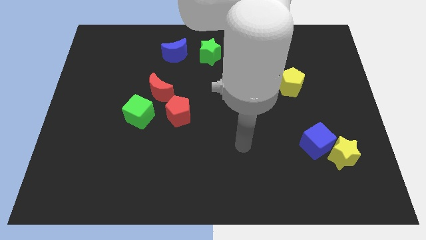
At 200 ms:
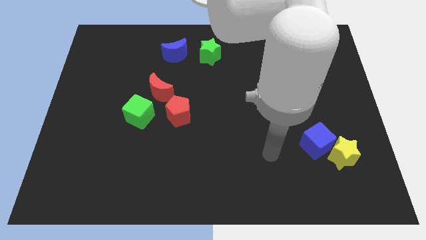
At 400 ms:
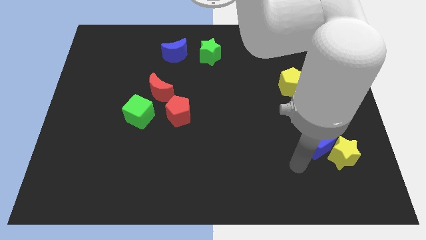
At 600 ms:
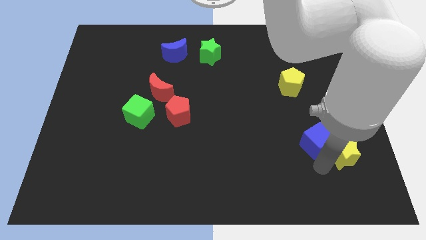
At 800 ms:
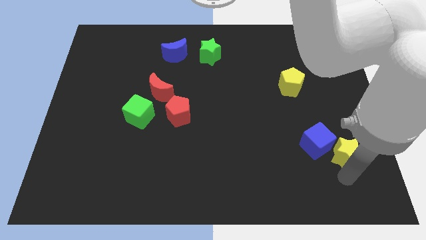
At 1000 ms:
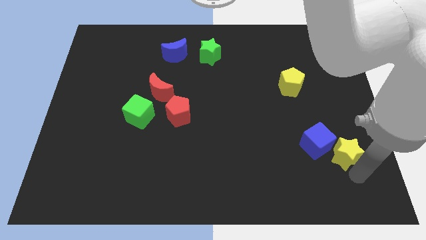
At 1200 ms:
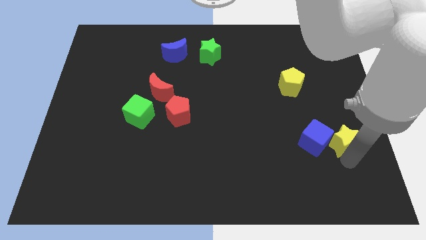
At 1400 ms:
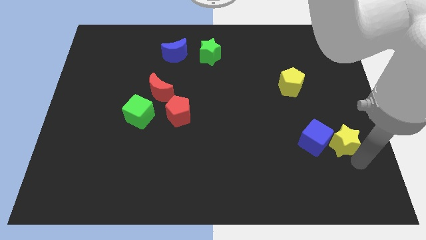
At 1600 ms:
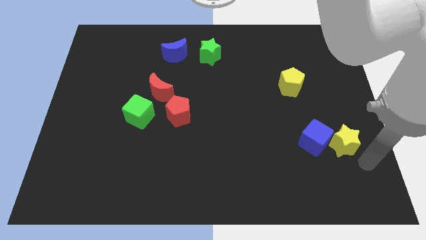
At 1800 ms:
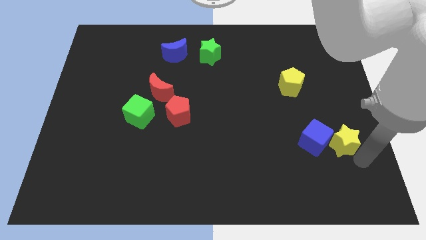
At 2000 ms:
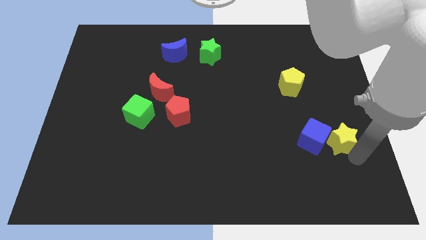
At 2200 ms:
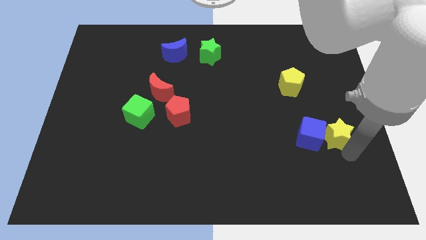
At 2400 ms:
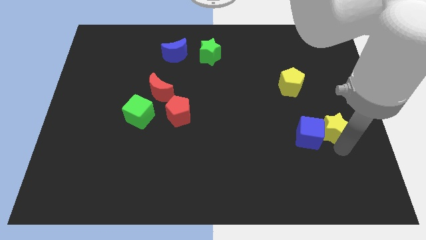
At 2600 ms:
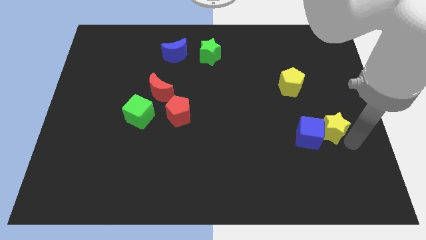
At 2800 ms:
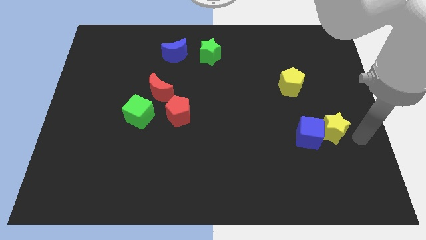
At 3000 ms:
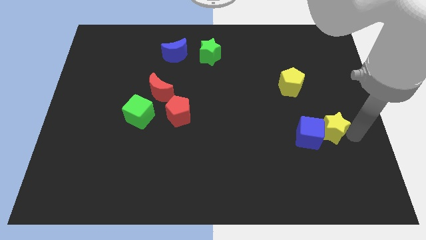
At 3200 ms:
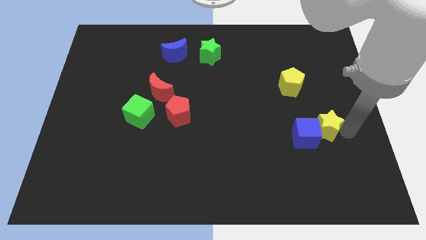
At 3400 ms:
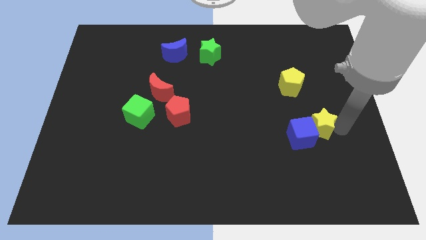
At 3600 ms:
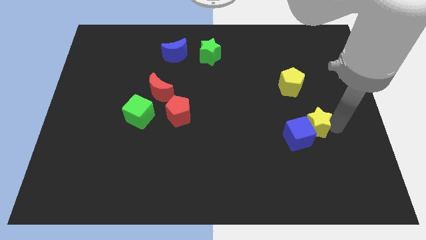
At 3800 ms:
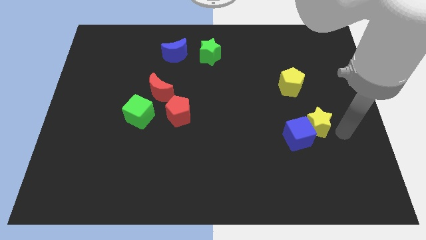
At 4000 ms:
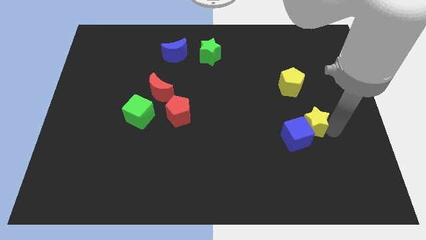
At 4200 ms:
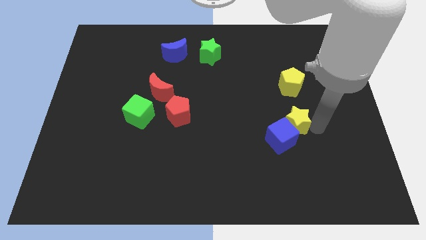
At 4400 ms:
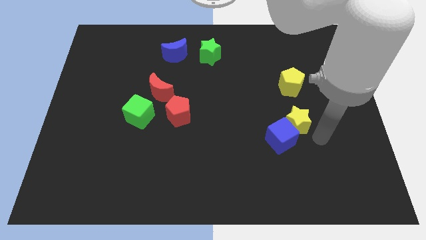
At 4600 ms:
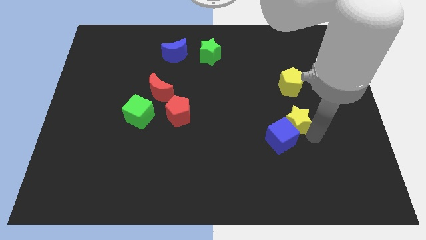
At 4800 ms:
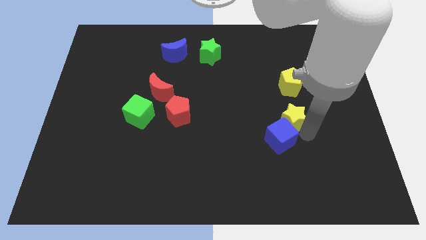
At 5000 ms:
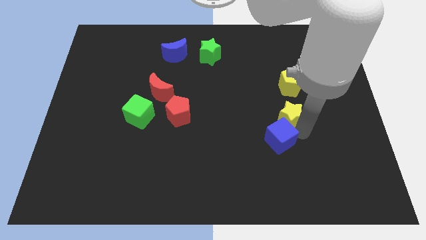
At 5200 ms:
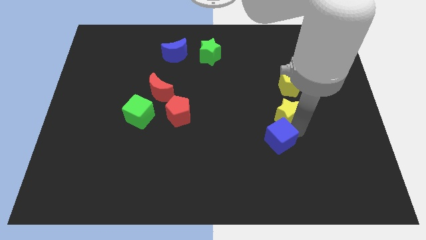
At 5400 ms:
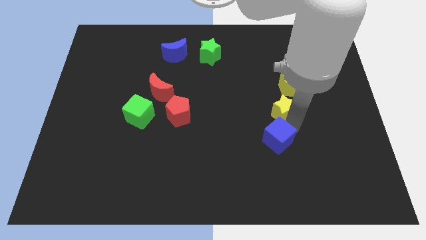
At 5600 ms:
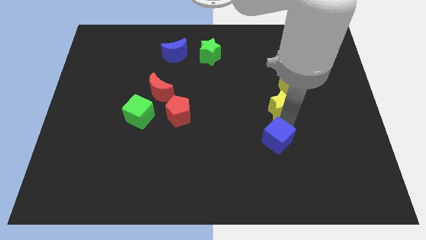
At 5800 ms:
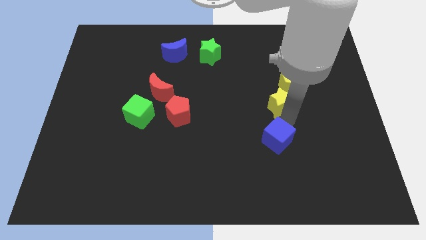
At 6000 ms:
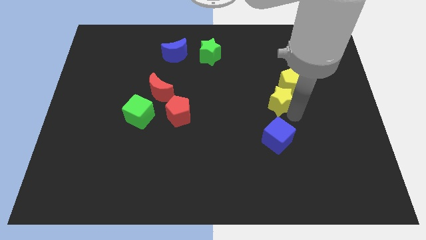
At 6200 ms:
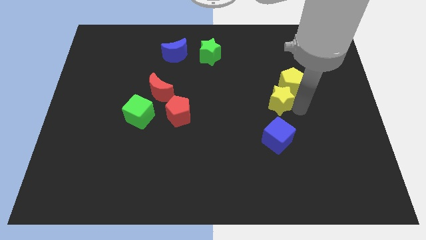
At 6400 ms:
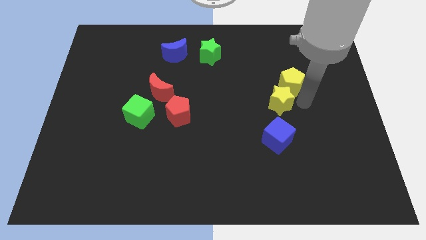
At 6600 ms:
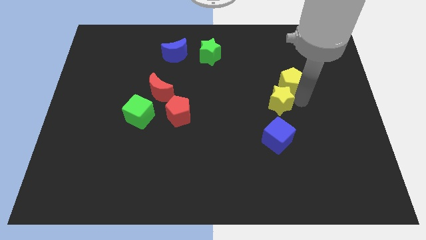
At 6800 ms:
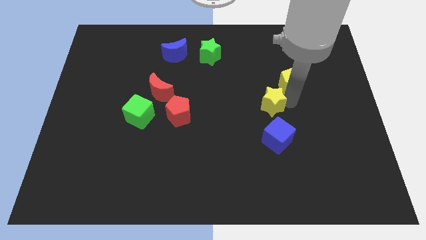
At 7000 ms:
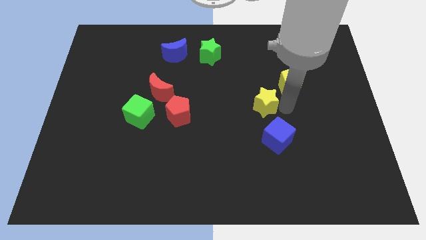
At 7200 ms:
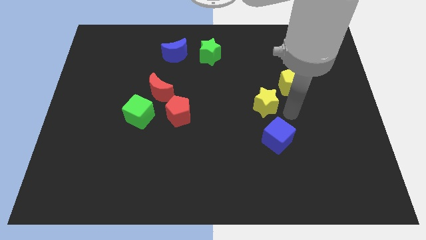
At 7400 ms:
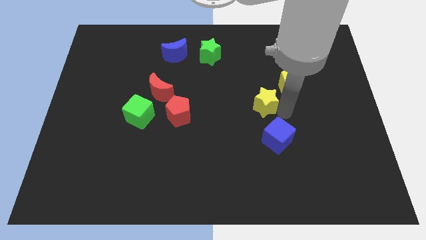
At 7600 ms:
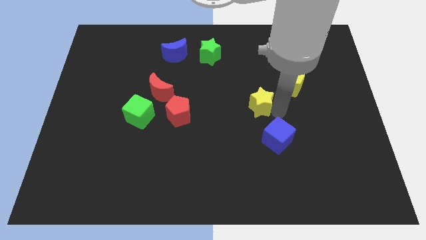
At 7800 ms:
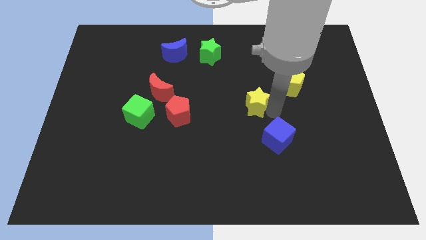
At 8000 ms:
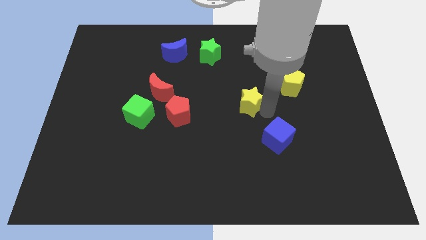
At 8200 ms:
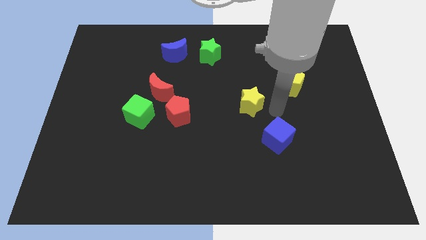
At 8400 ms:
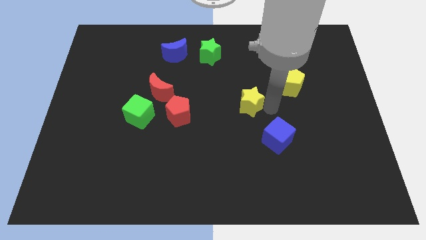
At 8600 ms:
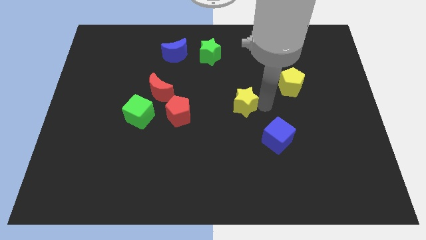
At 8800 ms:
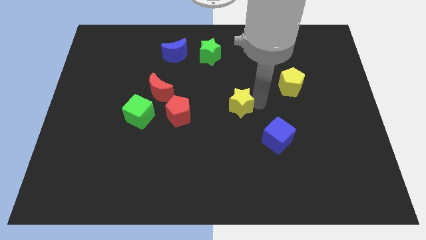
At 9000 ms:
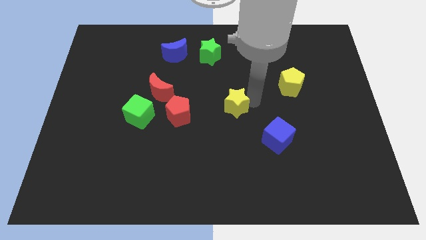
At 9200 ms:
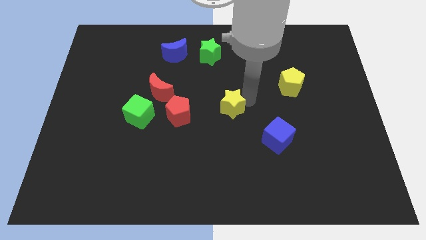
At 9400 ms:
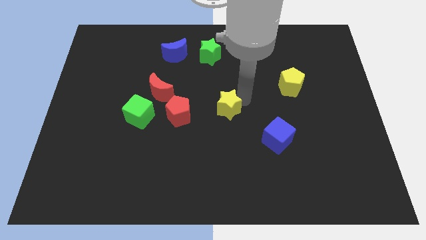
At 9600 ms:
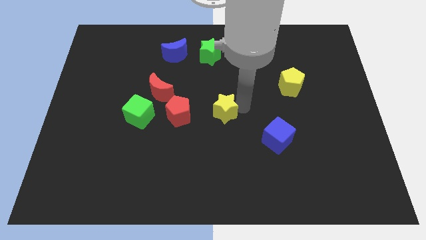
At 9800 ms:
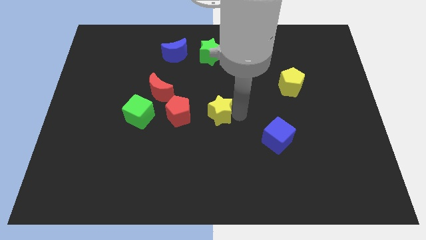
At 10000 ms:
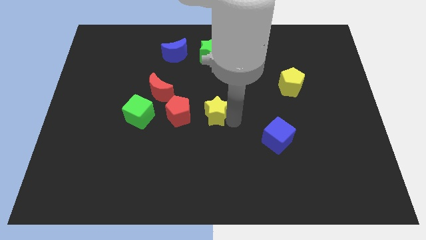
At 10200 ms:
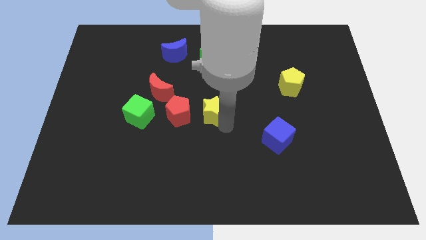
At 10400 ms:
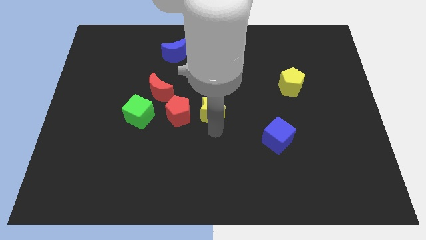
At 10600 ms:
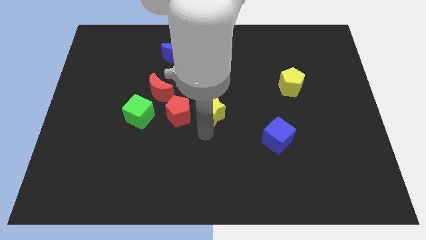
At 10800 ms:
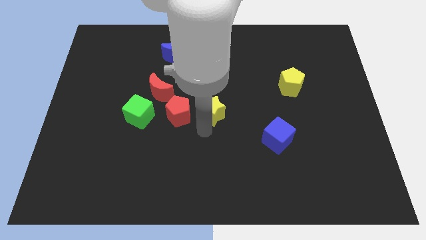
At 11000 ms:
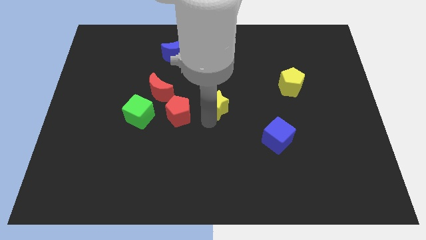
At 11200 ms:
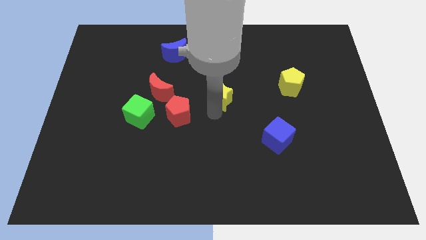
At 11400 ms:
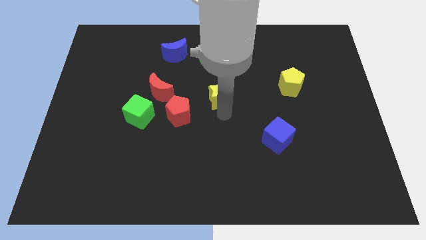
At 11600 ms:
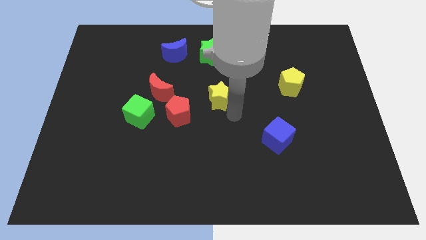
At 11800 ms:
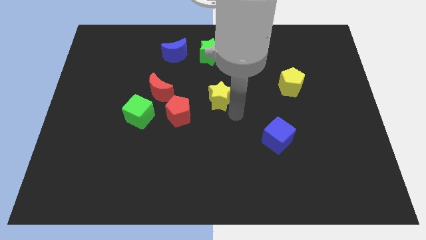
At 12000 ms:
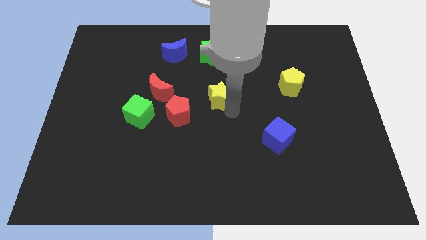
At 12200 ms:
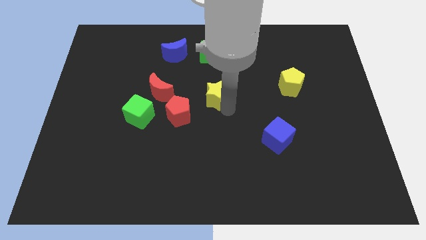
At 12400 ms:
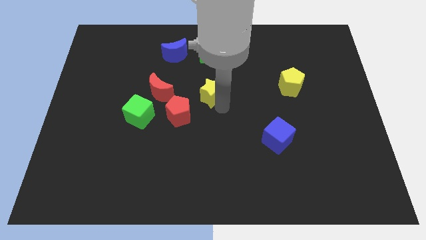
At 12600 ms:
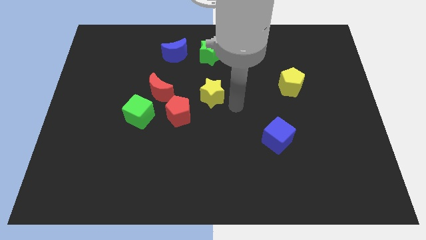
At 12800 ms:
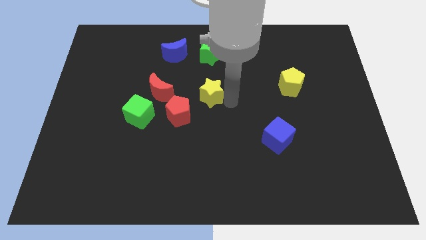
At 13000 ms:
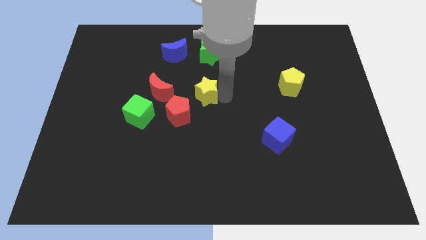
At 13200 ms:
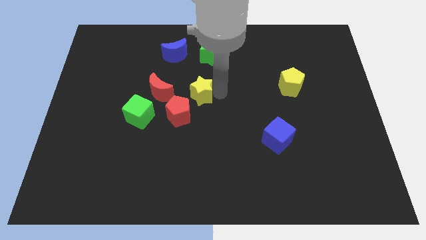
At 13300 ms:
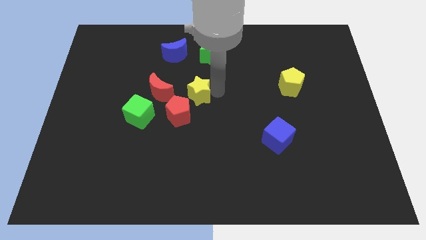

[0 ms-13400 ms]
move the yellow star to the top of the red pentagon

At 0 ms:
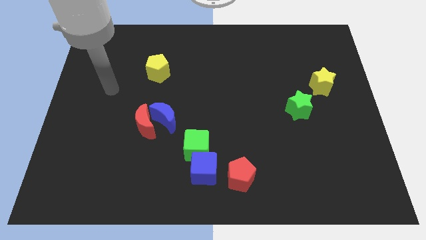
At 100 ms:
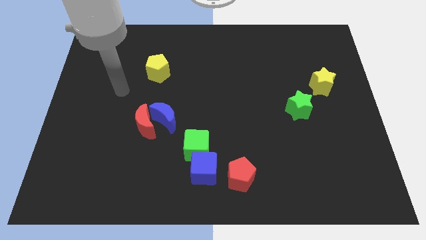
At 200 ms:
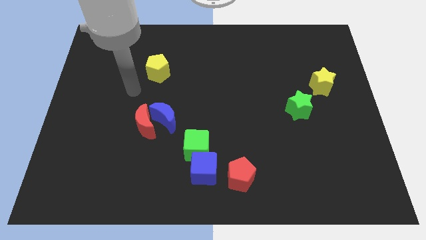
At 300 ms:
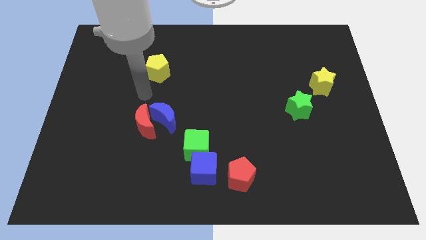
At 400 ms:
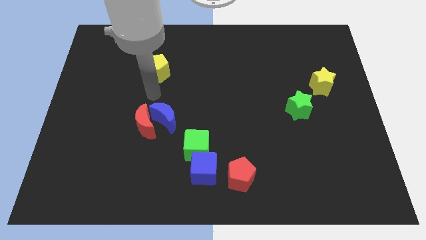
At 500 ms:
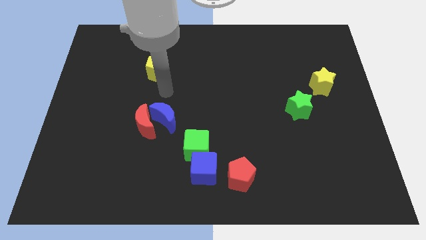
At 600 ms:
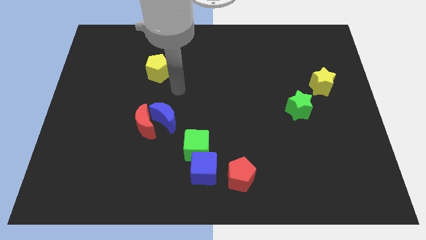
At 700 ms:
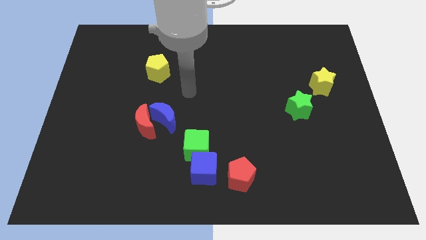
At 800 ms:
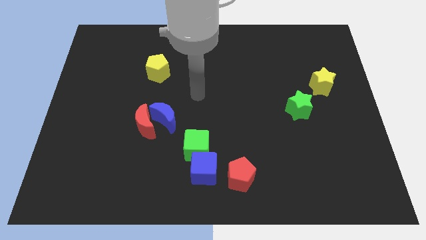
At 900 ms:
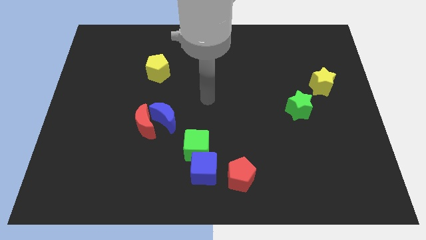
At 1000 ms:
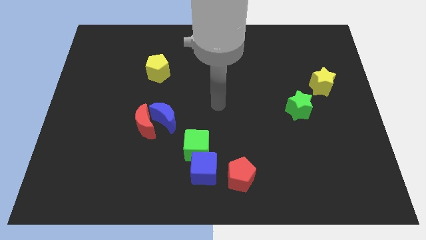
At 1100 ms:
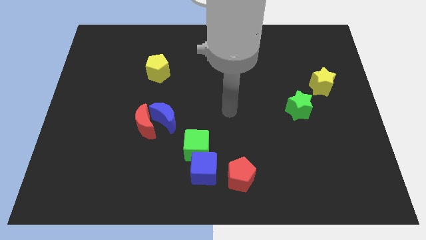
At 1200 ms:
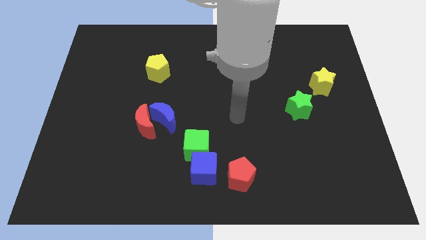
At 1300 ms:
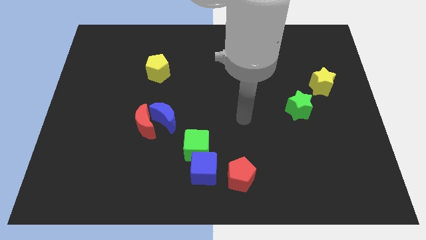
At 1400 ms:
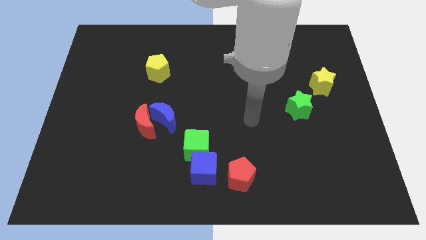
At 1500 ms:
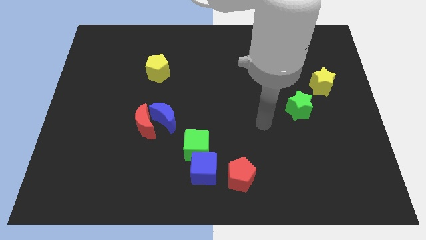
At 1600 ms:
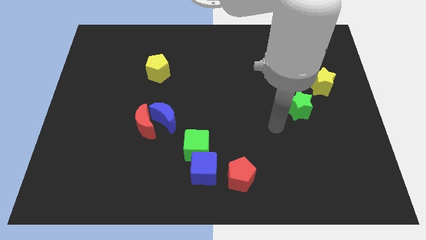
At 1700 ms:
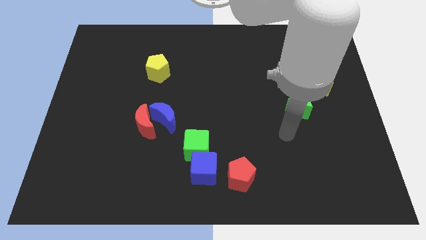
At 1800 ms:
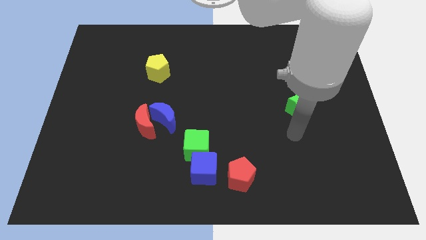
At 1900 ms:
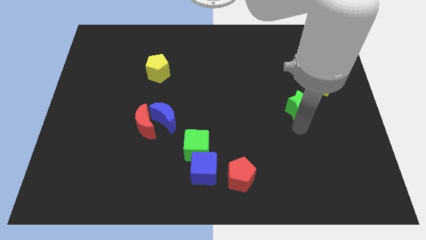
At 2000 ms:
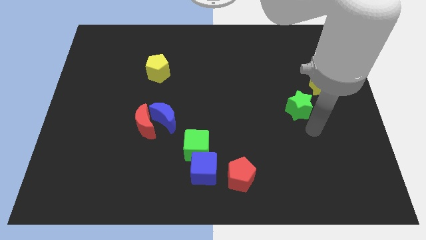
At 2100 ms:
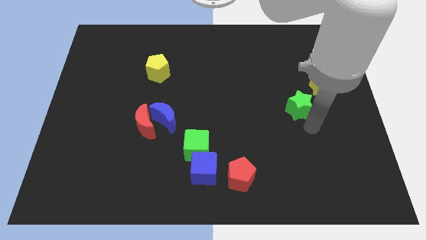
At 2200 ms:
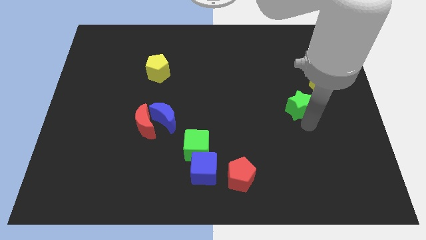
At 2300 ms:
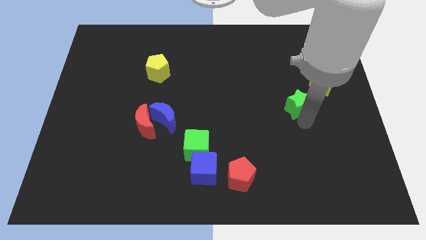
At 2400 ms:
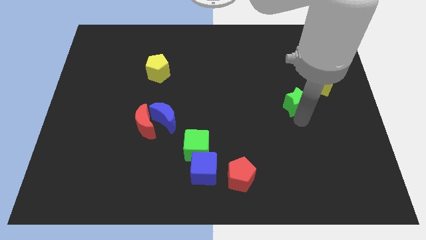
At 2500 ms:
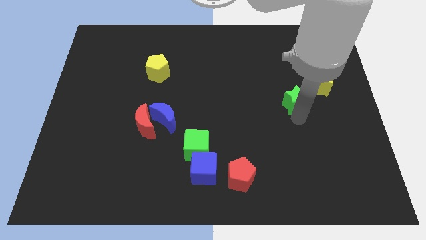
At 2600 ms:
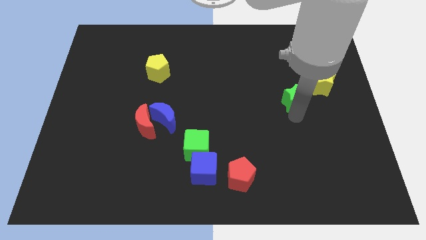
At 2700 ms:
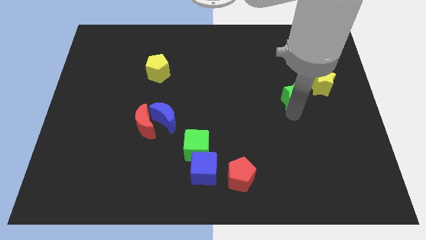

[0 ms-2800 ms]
move the green star to the left of the yellow star
